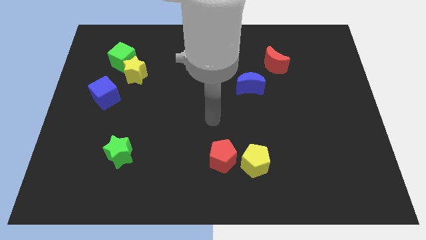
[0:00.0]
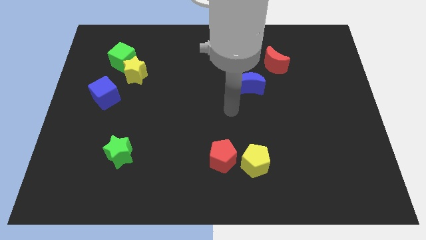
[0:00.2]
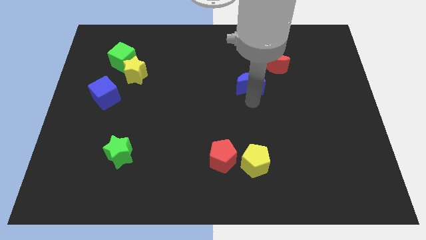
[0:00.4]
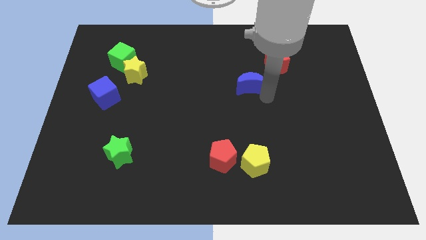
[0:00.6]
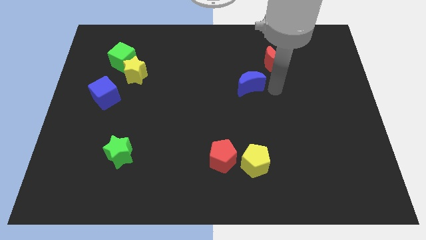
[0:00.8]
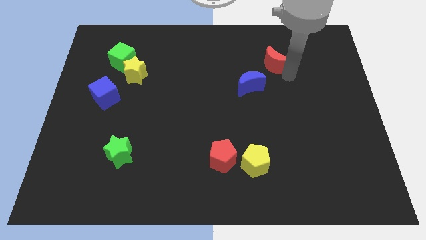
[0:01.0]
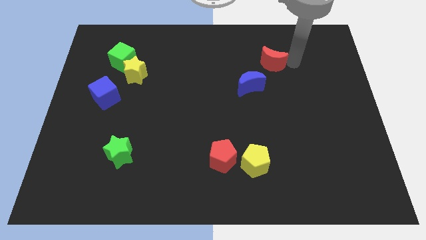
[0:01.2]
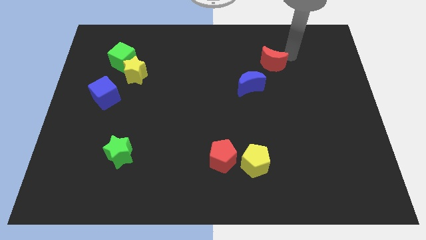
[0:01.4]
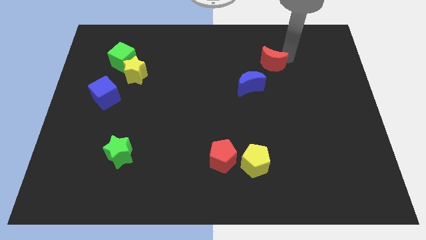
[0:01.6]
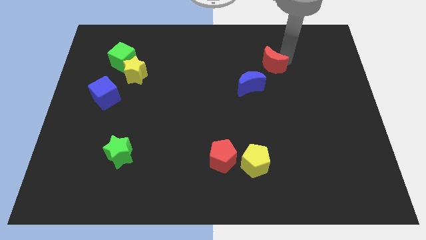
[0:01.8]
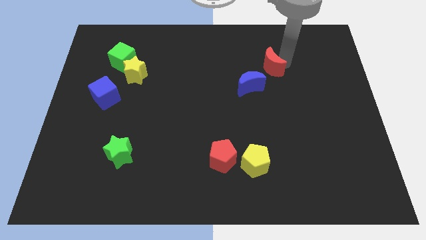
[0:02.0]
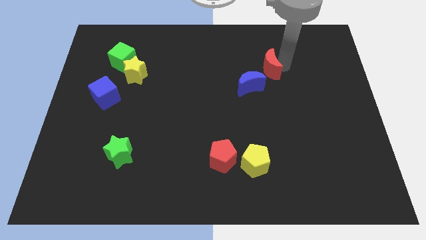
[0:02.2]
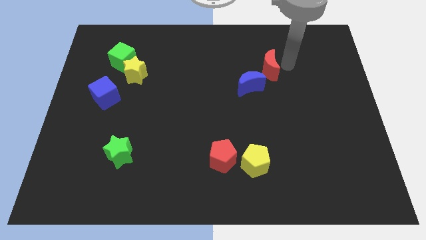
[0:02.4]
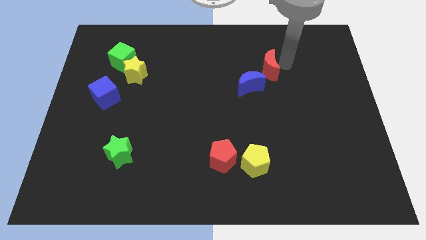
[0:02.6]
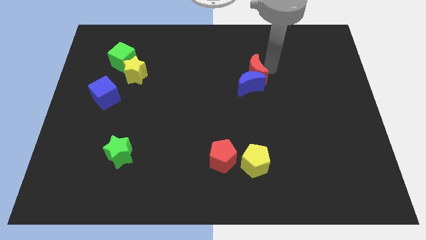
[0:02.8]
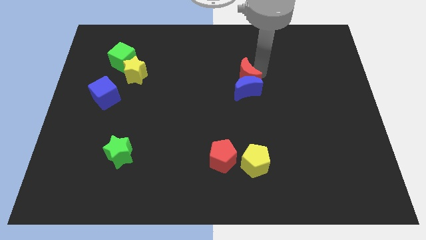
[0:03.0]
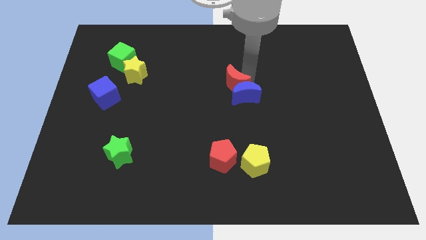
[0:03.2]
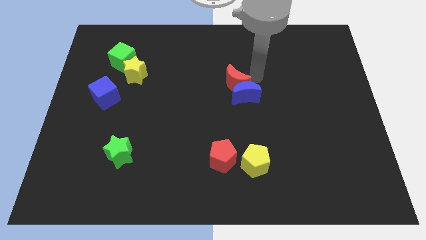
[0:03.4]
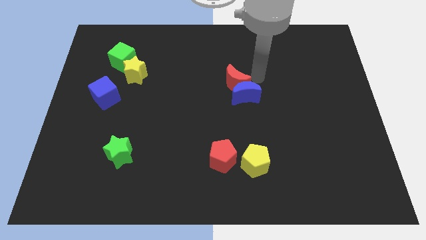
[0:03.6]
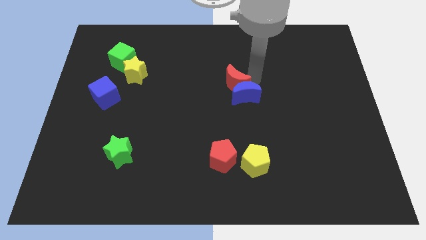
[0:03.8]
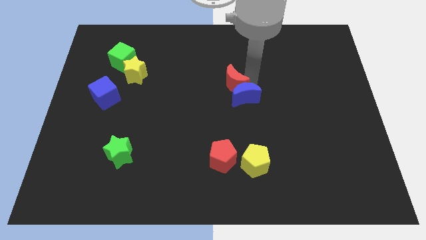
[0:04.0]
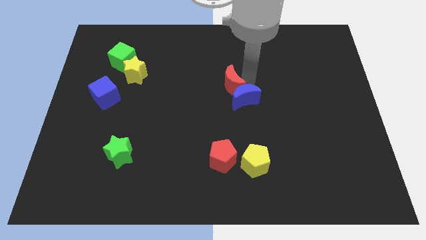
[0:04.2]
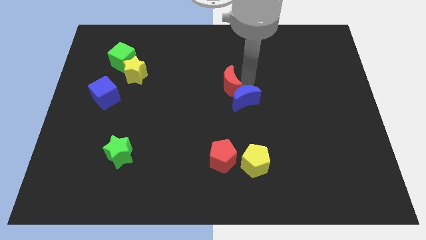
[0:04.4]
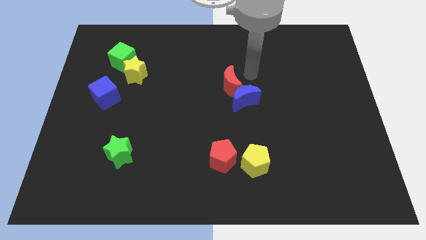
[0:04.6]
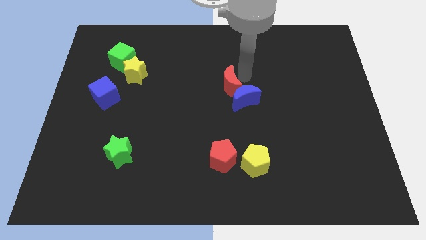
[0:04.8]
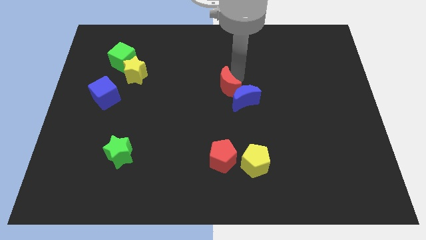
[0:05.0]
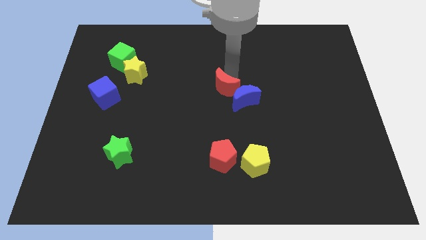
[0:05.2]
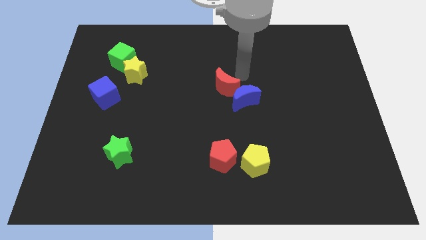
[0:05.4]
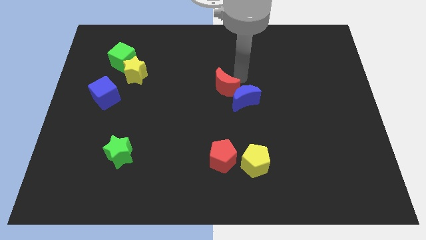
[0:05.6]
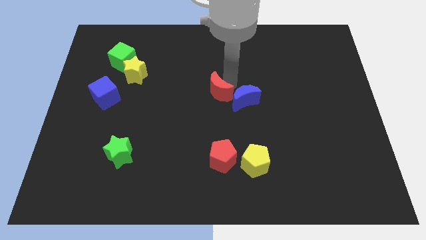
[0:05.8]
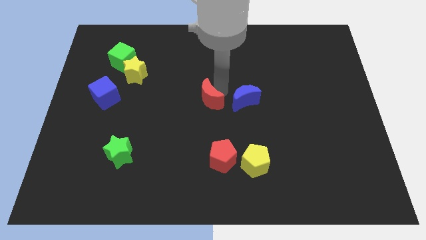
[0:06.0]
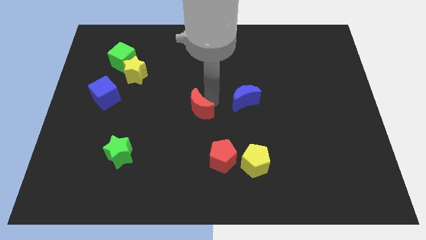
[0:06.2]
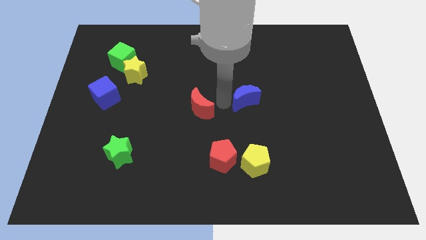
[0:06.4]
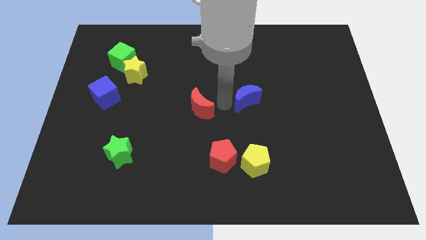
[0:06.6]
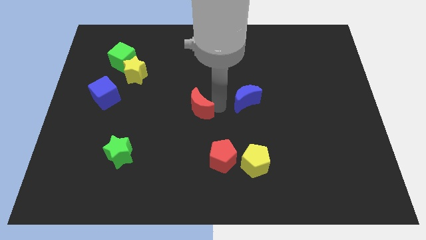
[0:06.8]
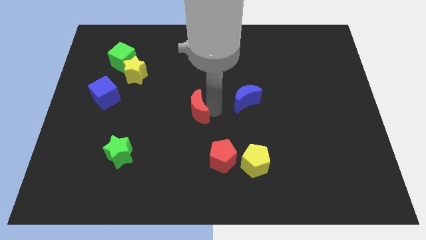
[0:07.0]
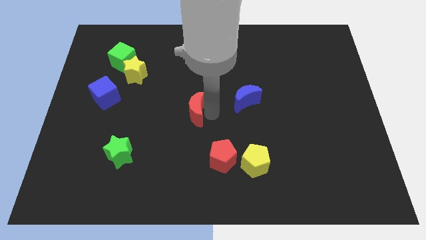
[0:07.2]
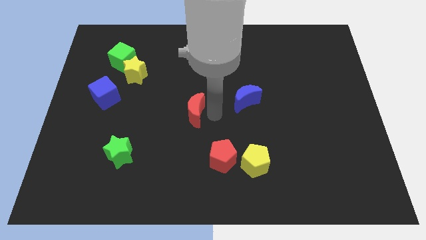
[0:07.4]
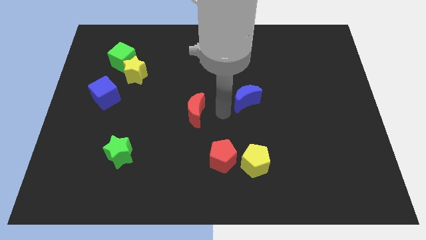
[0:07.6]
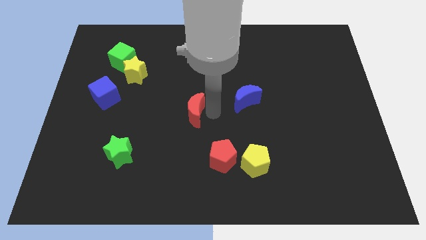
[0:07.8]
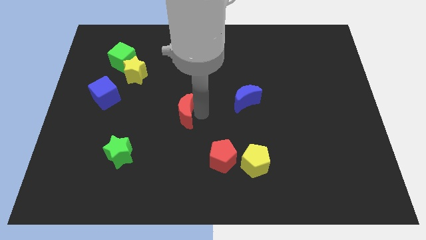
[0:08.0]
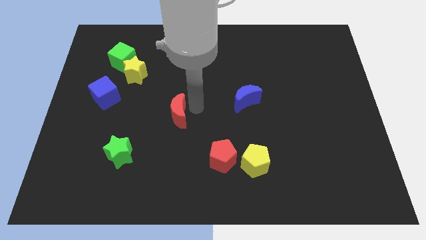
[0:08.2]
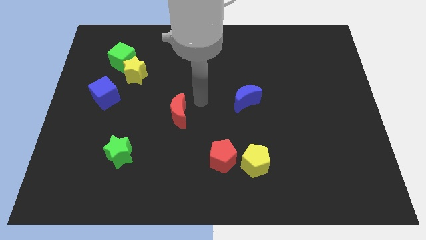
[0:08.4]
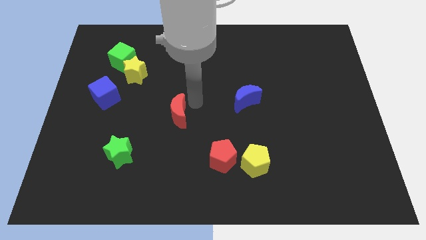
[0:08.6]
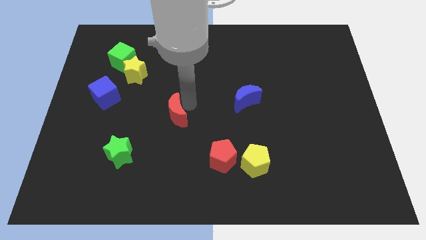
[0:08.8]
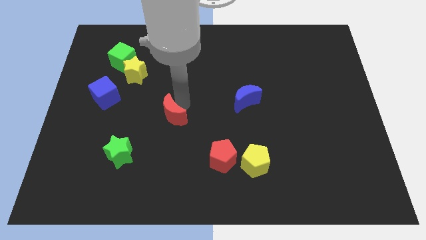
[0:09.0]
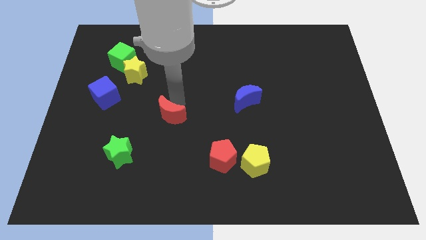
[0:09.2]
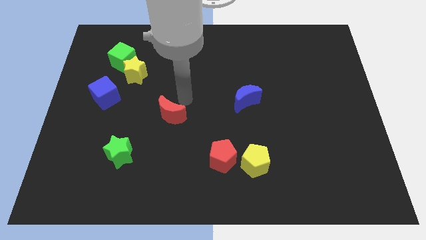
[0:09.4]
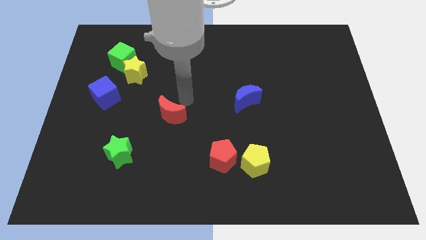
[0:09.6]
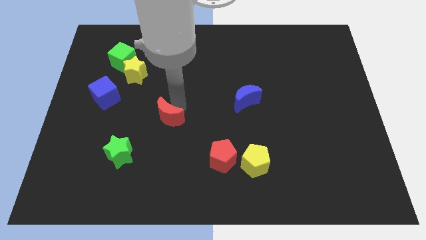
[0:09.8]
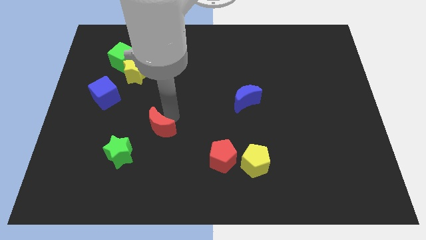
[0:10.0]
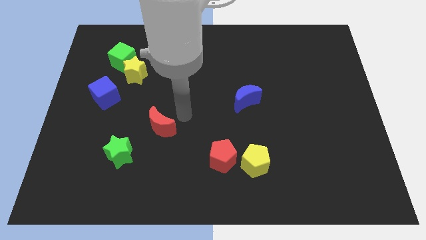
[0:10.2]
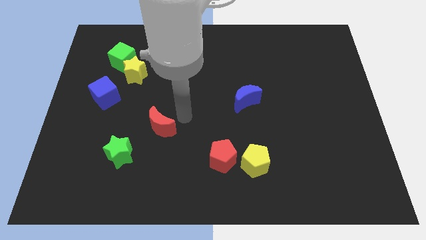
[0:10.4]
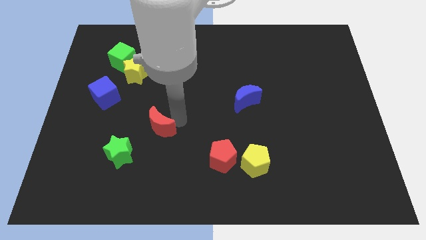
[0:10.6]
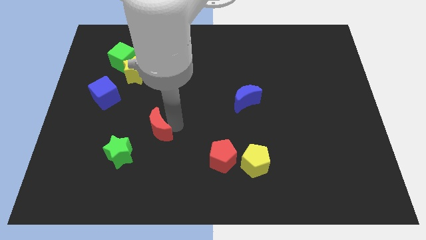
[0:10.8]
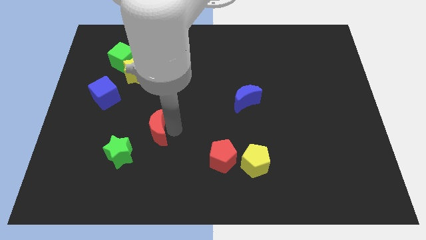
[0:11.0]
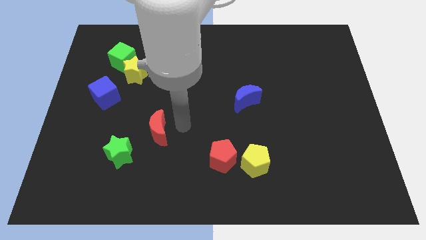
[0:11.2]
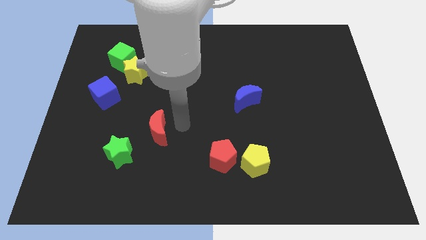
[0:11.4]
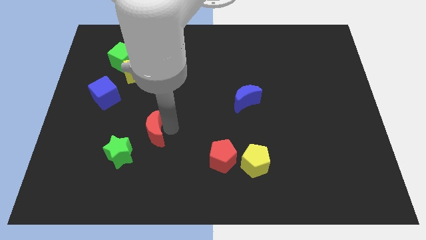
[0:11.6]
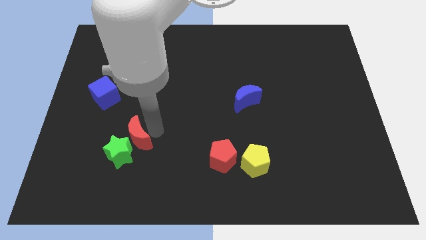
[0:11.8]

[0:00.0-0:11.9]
slide the red moon close to the green star

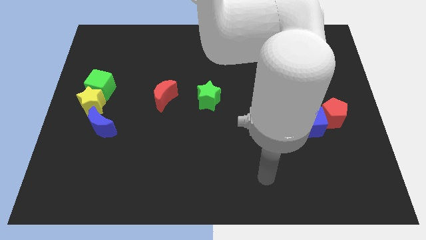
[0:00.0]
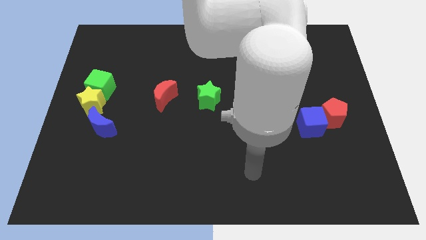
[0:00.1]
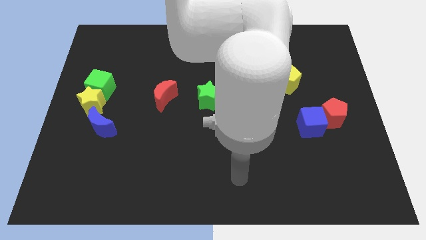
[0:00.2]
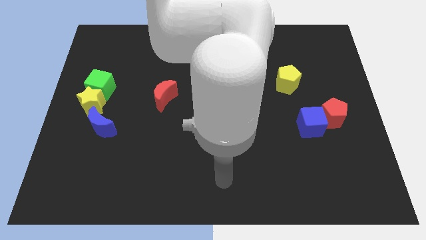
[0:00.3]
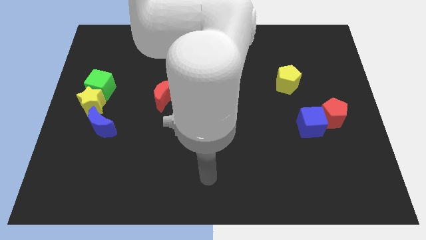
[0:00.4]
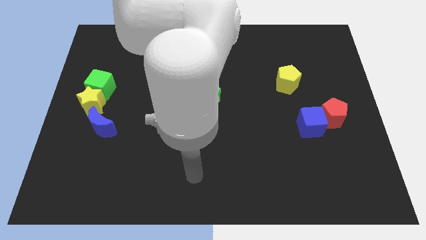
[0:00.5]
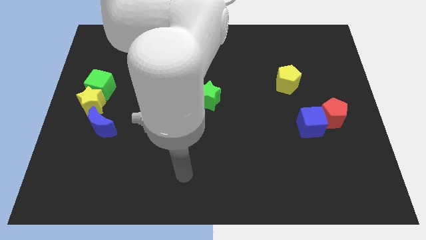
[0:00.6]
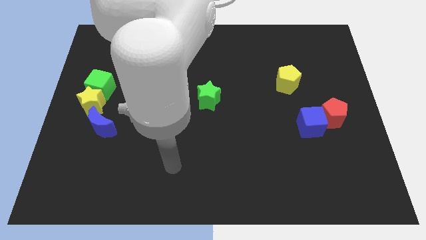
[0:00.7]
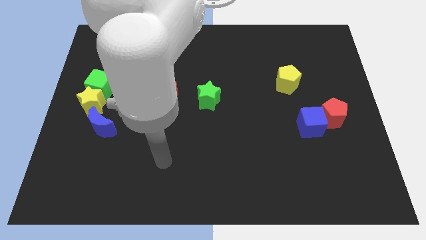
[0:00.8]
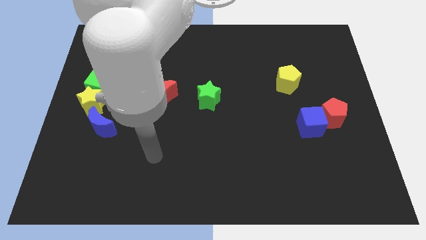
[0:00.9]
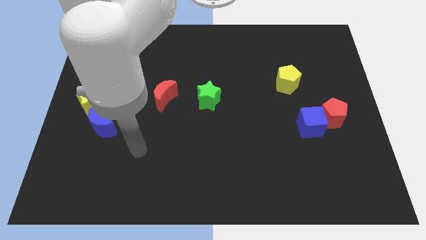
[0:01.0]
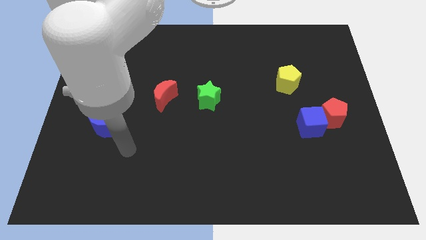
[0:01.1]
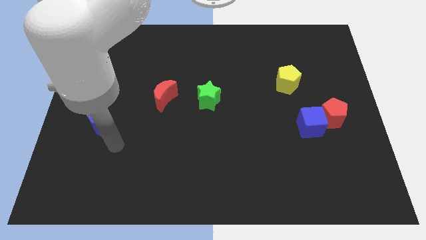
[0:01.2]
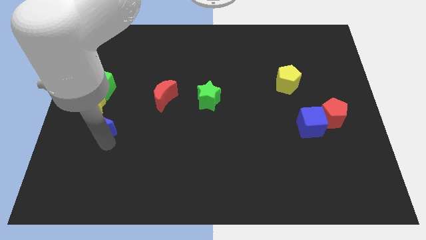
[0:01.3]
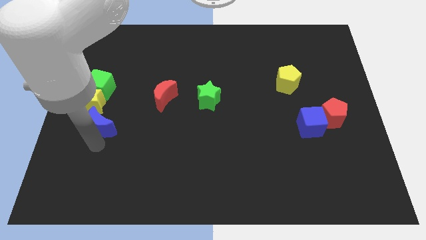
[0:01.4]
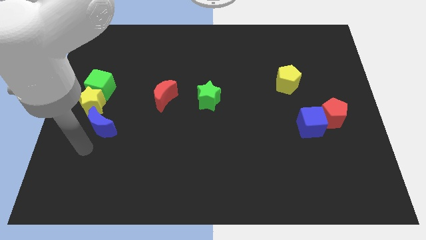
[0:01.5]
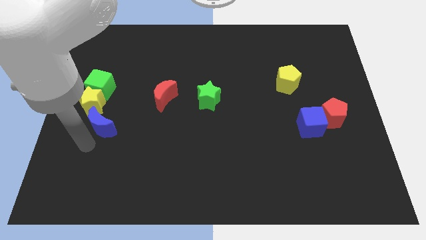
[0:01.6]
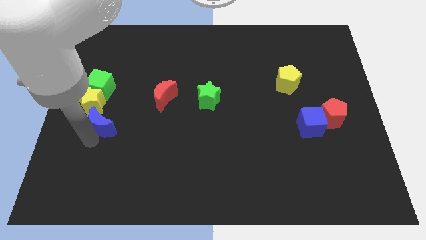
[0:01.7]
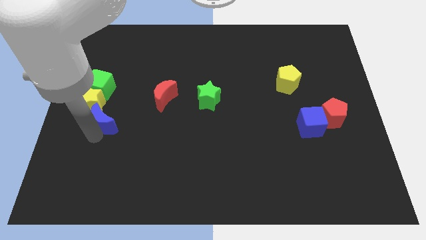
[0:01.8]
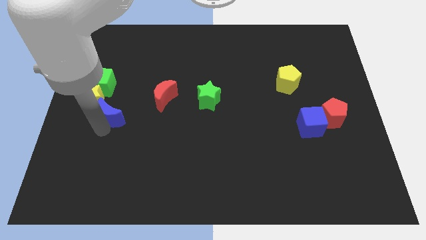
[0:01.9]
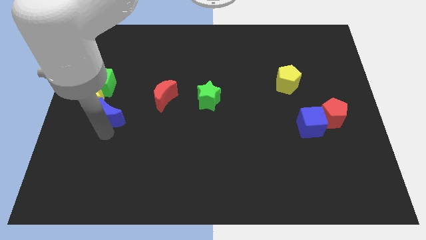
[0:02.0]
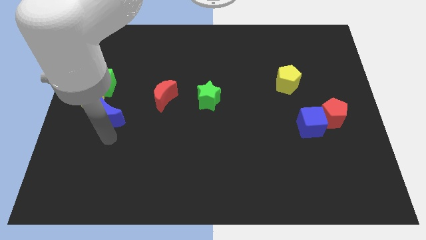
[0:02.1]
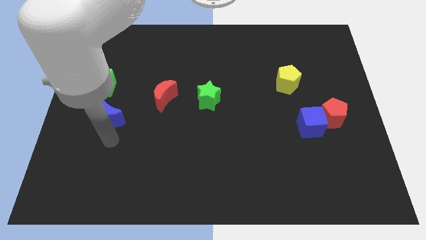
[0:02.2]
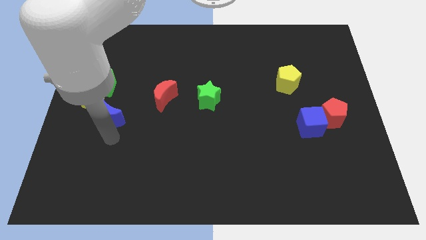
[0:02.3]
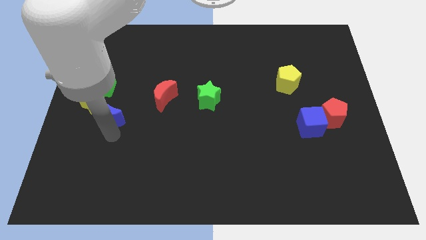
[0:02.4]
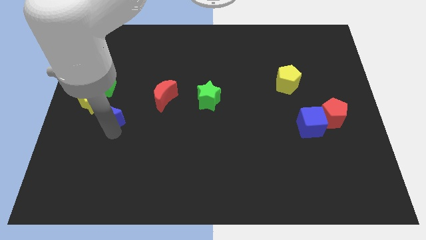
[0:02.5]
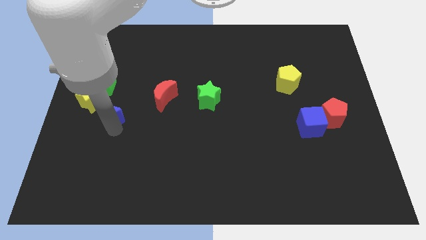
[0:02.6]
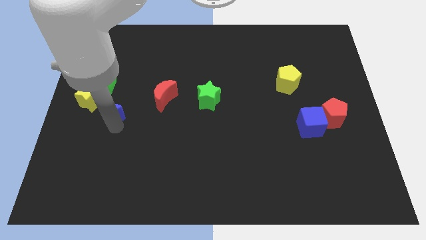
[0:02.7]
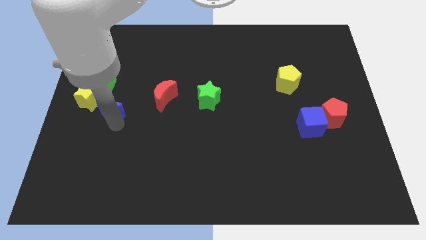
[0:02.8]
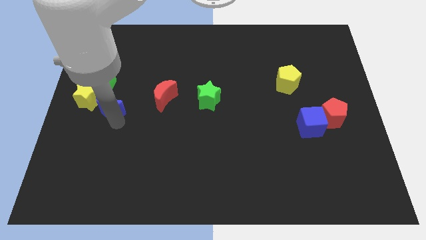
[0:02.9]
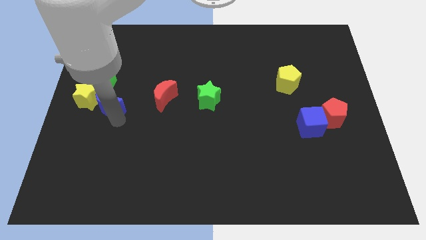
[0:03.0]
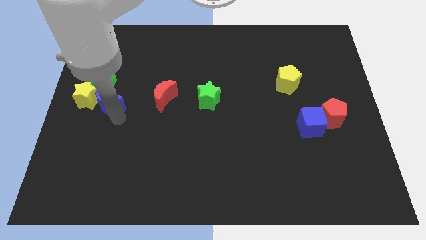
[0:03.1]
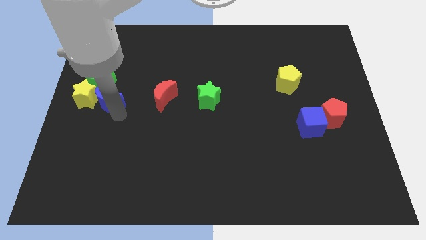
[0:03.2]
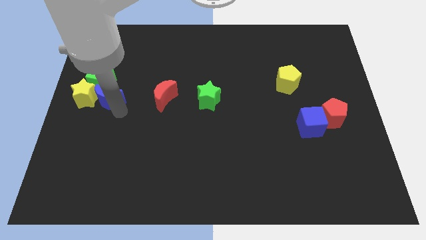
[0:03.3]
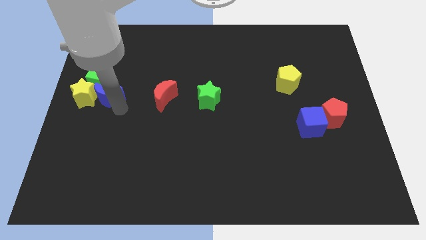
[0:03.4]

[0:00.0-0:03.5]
slide the blue moon towards the green cube
